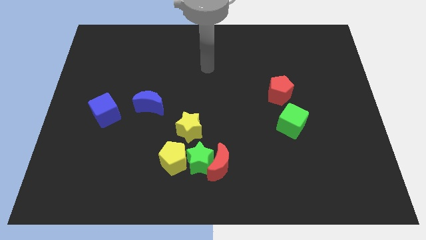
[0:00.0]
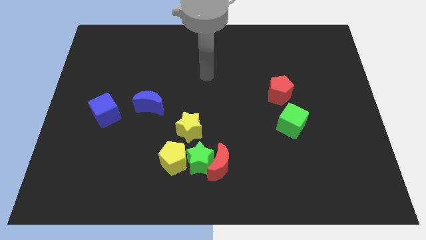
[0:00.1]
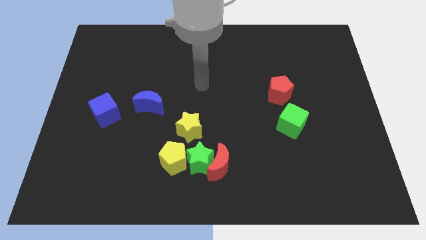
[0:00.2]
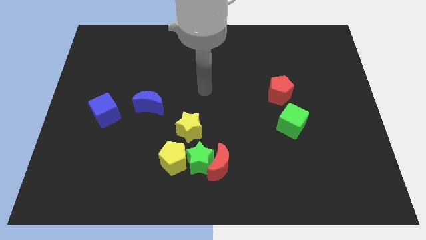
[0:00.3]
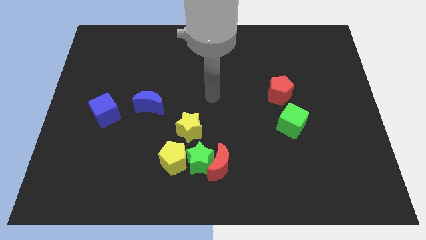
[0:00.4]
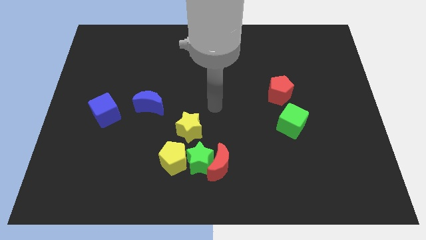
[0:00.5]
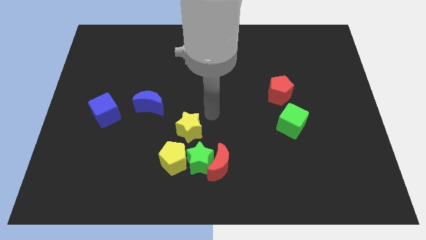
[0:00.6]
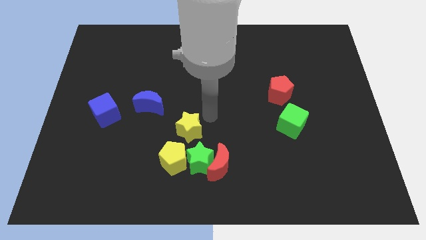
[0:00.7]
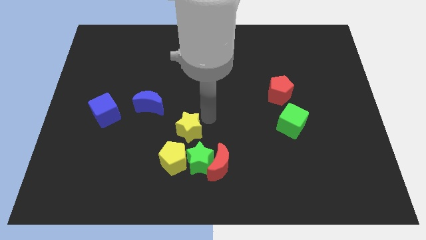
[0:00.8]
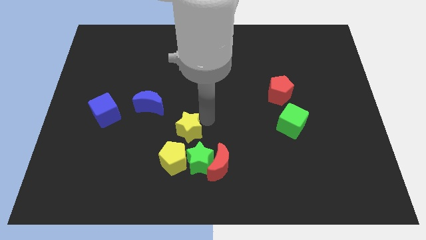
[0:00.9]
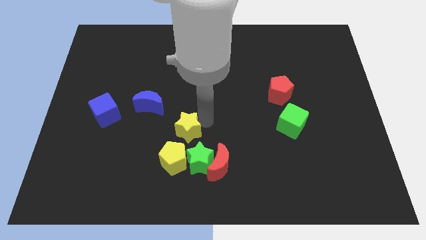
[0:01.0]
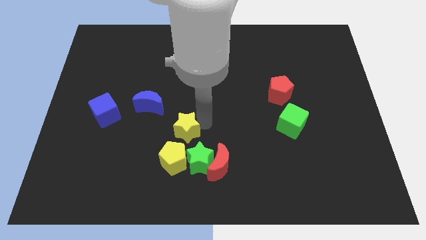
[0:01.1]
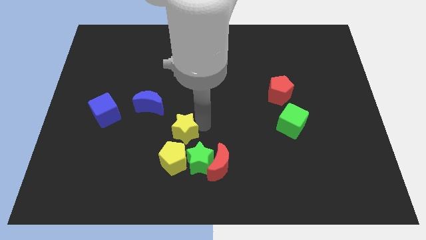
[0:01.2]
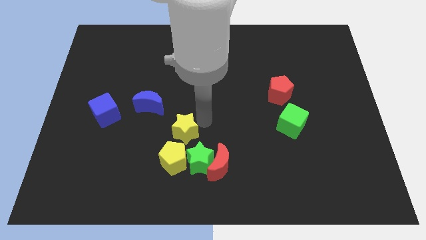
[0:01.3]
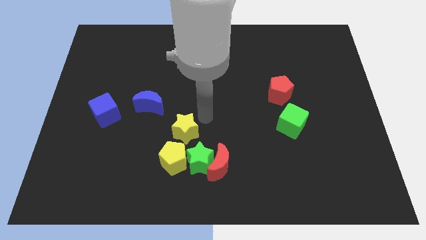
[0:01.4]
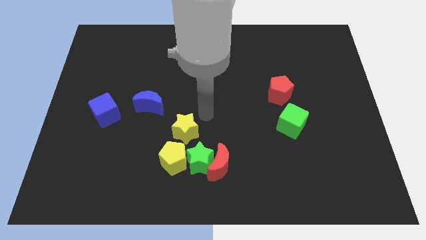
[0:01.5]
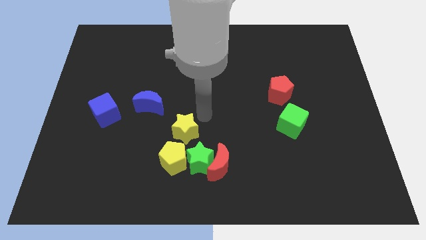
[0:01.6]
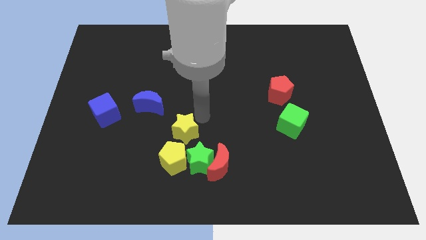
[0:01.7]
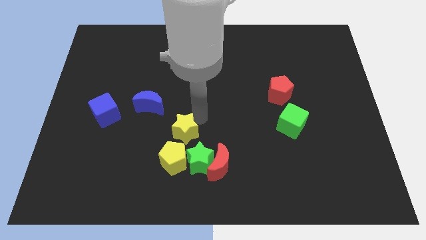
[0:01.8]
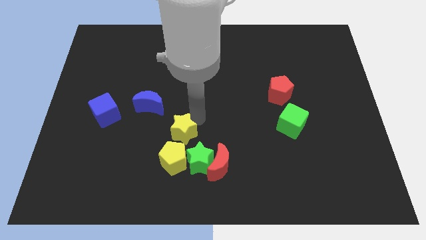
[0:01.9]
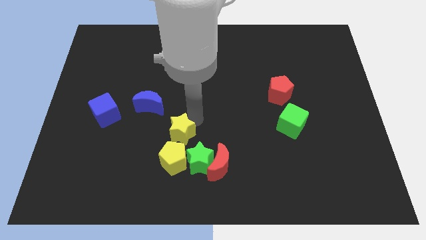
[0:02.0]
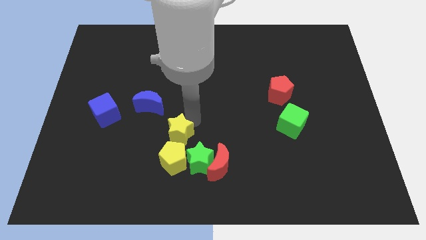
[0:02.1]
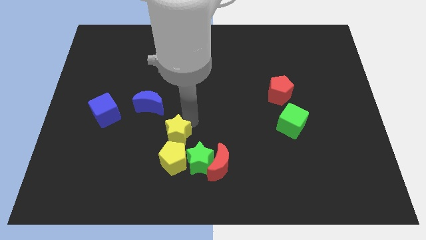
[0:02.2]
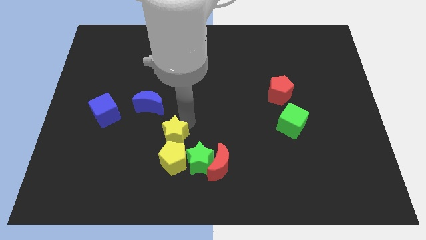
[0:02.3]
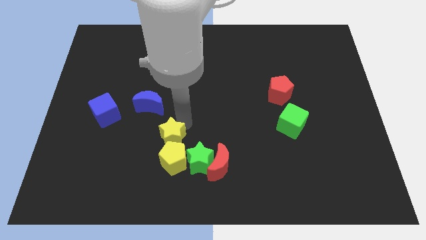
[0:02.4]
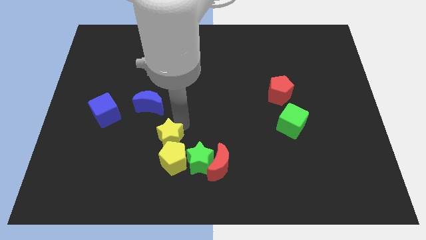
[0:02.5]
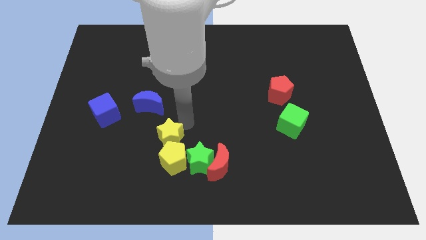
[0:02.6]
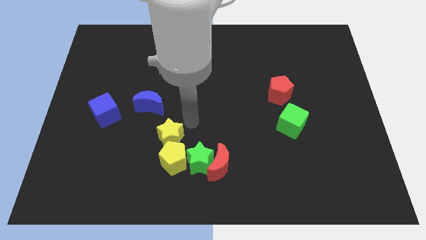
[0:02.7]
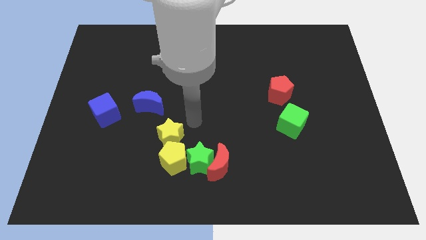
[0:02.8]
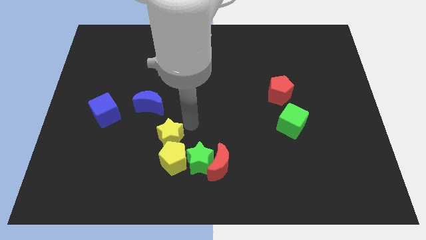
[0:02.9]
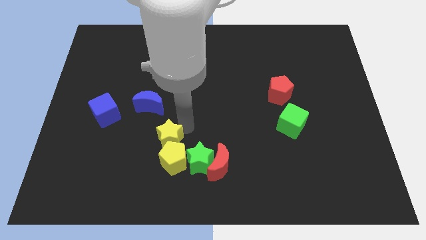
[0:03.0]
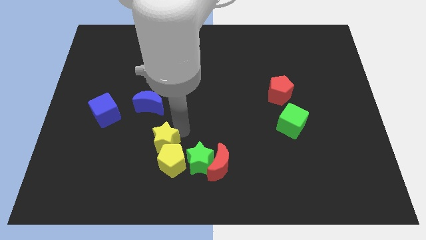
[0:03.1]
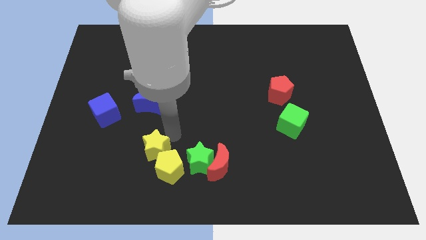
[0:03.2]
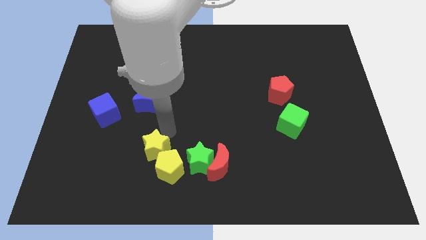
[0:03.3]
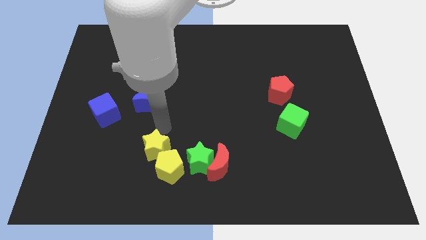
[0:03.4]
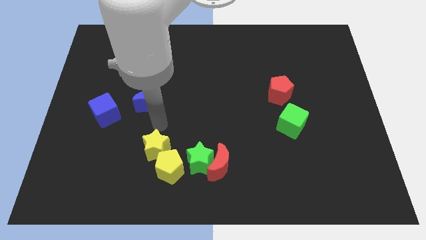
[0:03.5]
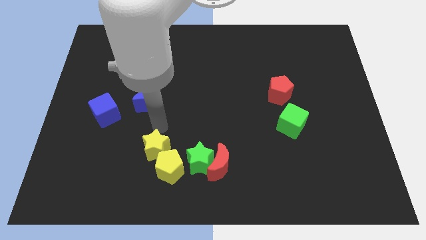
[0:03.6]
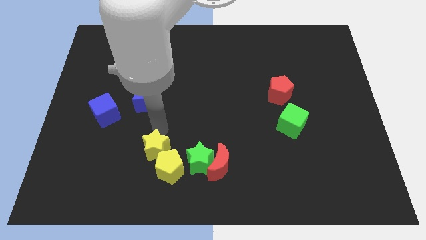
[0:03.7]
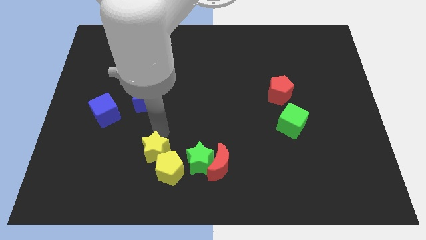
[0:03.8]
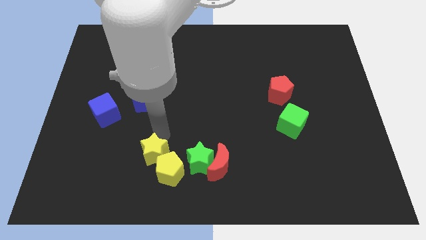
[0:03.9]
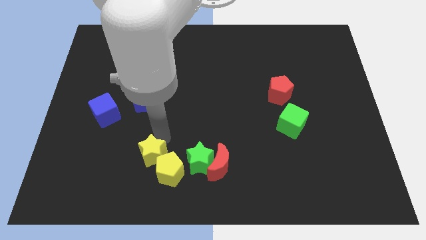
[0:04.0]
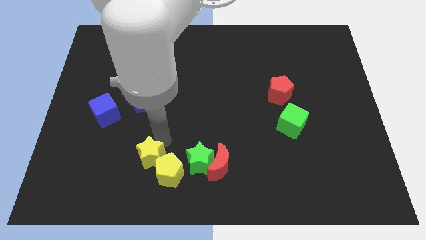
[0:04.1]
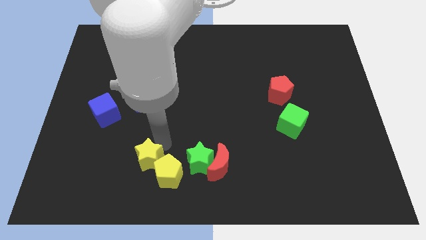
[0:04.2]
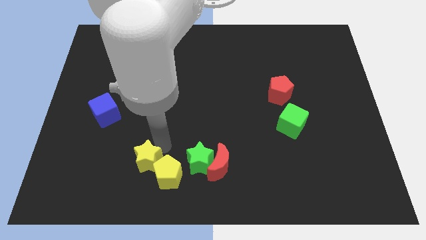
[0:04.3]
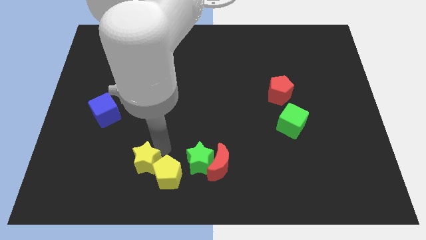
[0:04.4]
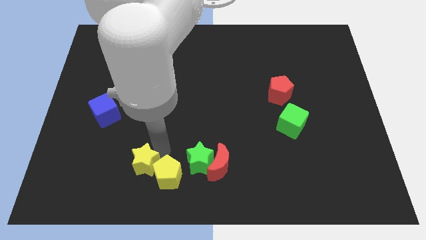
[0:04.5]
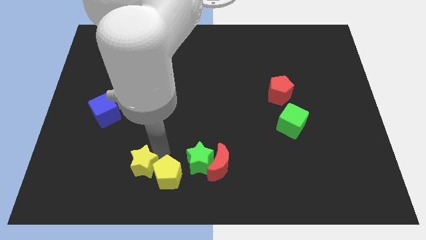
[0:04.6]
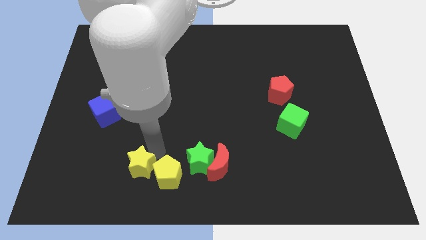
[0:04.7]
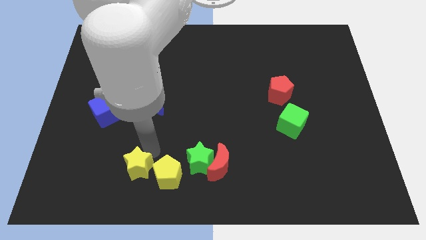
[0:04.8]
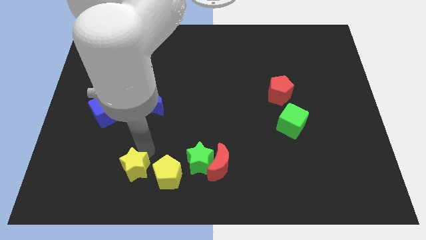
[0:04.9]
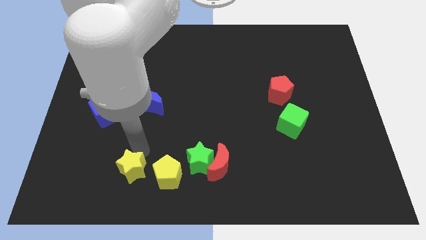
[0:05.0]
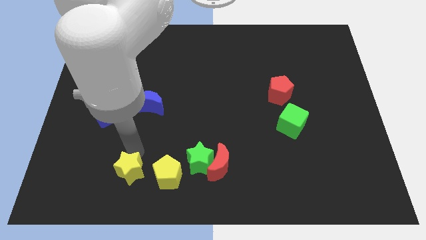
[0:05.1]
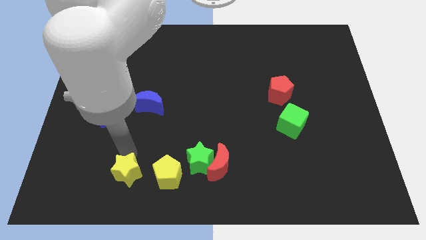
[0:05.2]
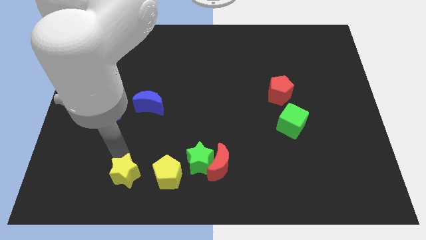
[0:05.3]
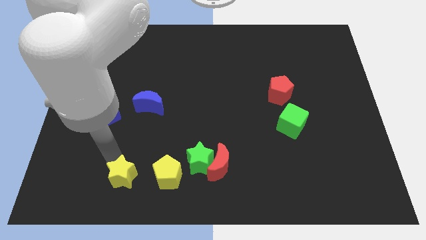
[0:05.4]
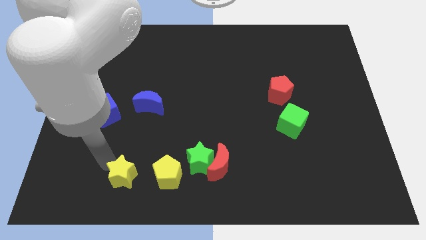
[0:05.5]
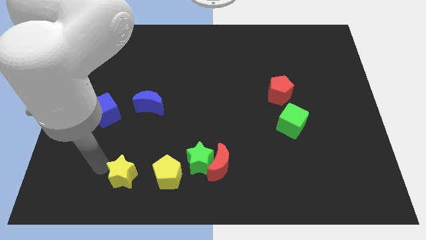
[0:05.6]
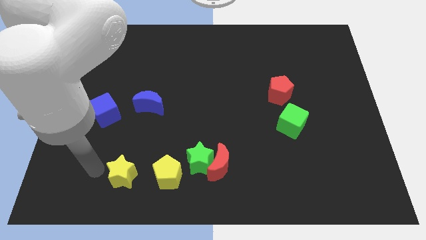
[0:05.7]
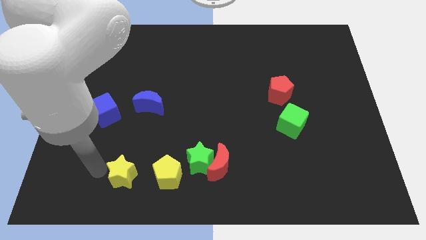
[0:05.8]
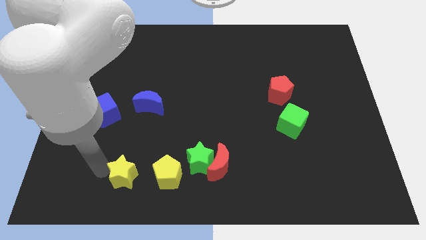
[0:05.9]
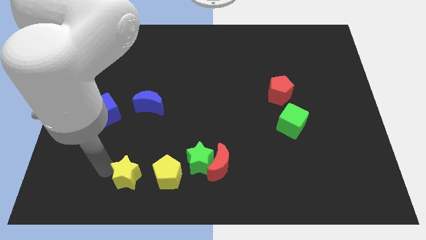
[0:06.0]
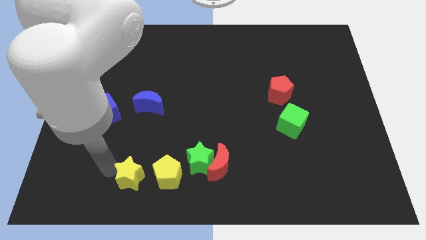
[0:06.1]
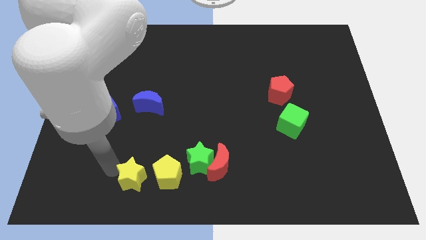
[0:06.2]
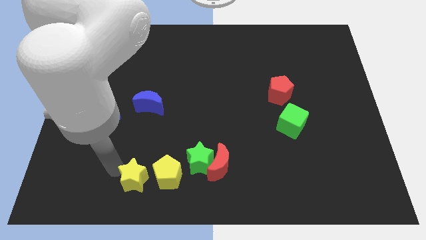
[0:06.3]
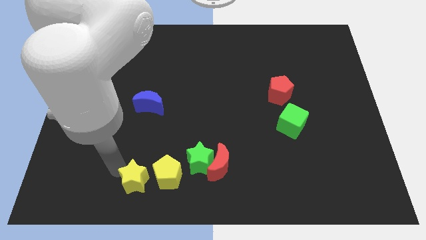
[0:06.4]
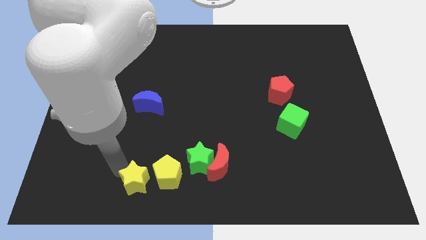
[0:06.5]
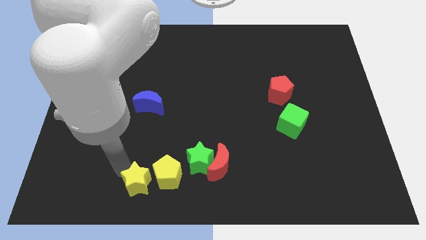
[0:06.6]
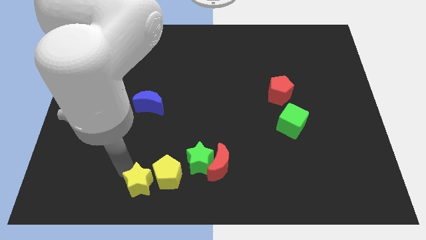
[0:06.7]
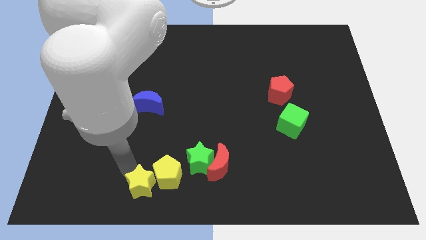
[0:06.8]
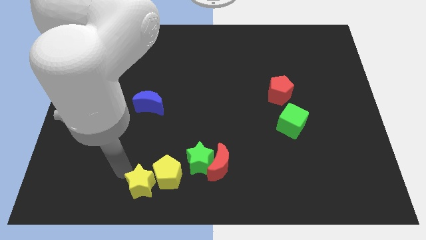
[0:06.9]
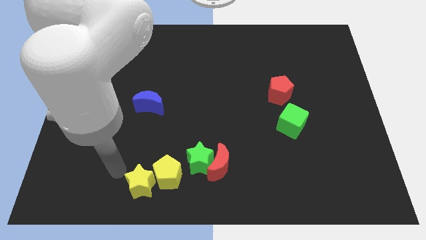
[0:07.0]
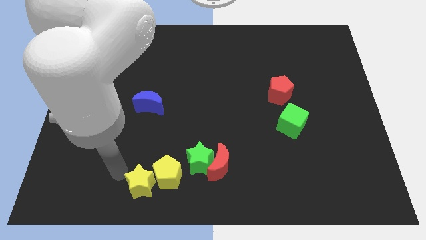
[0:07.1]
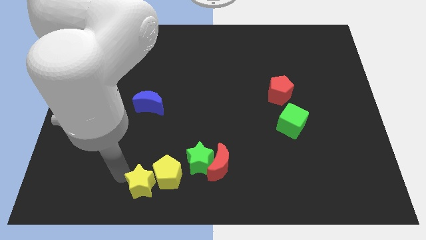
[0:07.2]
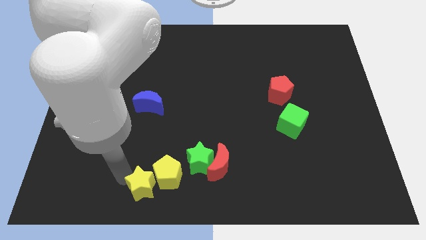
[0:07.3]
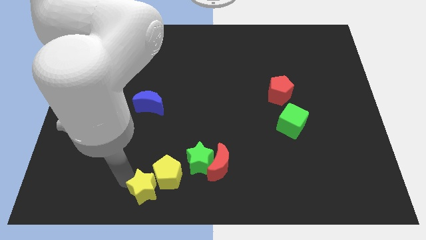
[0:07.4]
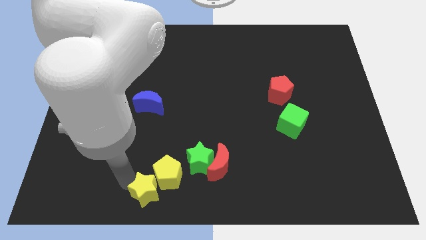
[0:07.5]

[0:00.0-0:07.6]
put the yellow star to the bottom side
